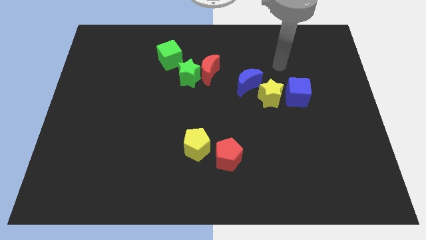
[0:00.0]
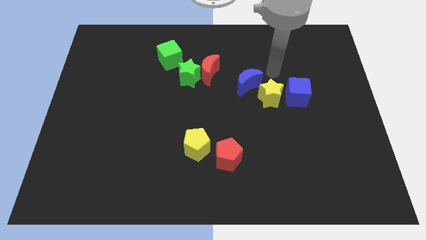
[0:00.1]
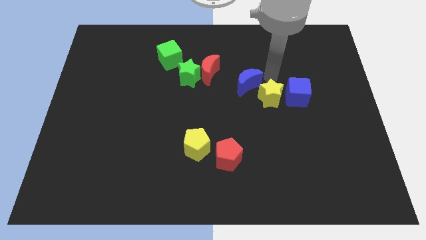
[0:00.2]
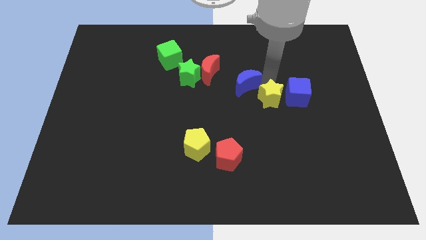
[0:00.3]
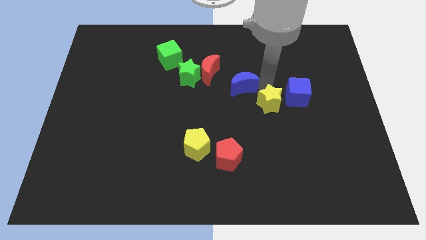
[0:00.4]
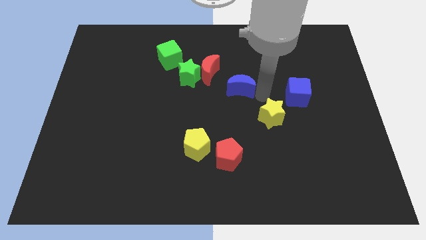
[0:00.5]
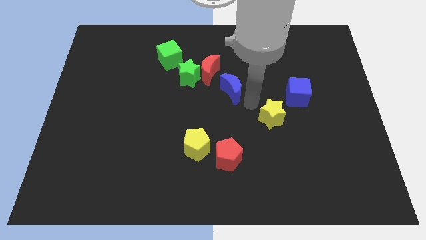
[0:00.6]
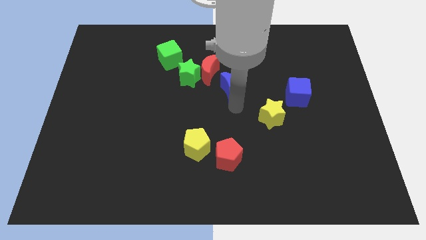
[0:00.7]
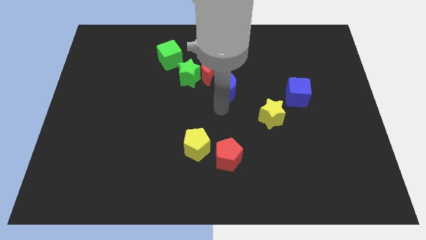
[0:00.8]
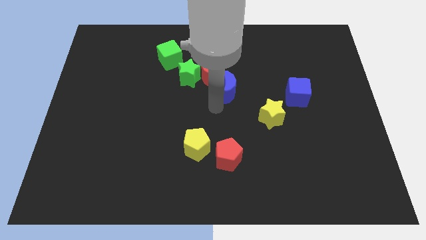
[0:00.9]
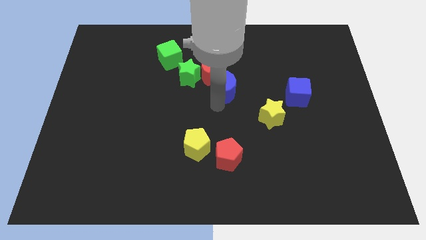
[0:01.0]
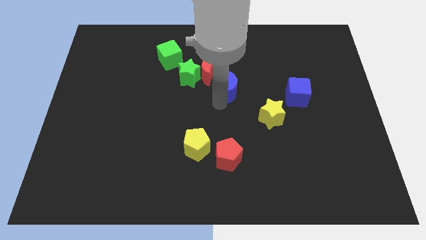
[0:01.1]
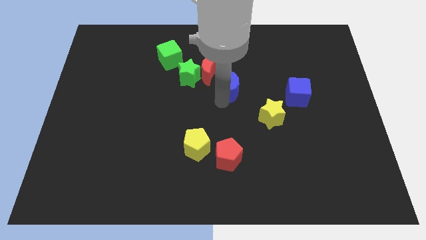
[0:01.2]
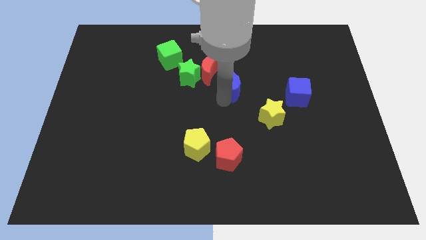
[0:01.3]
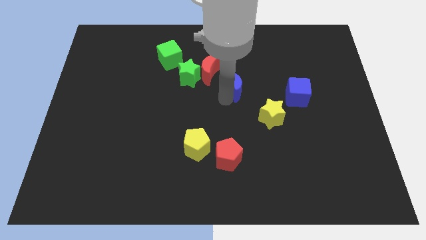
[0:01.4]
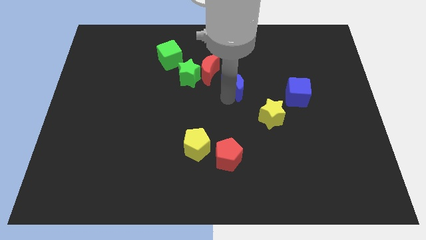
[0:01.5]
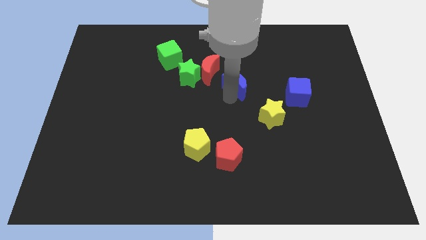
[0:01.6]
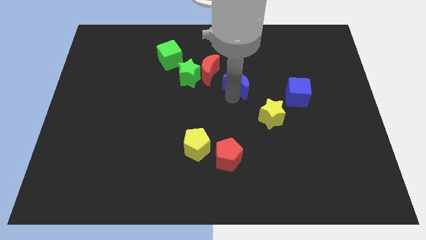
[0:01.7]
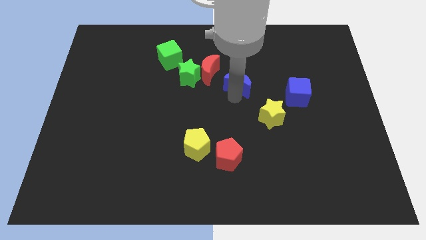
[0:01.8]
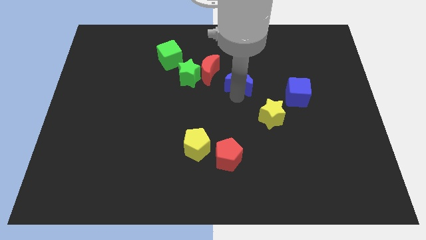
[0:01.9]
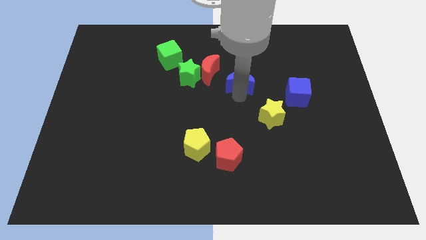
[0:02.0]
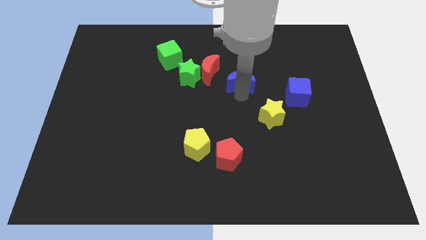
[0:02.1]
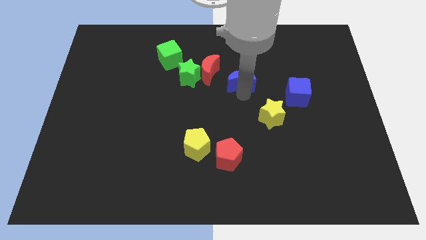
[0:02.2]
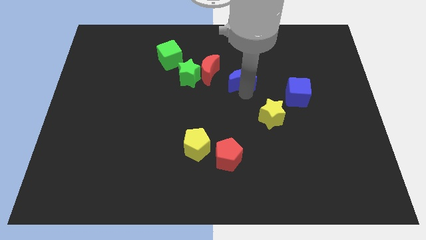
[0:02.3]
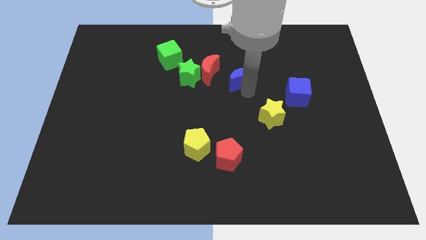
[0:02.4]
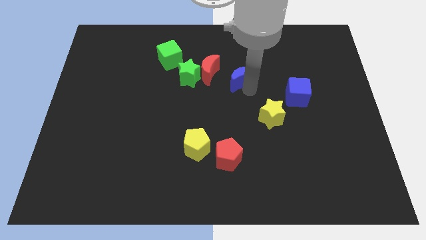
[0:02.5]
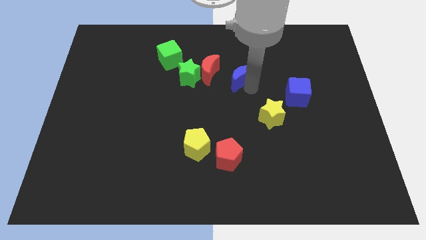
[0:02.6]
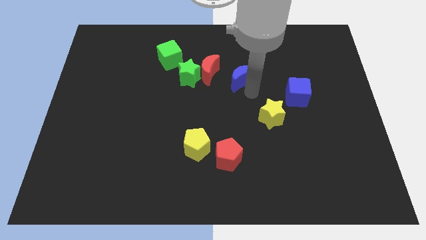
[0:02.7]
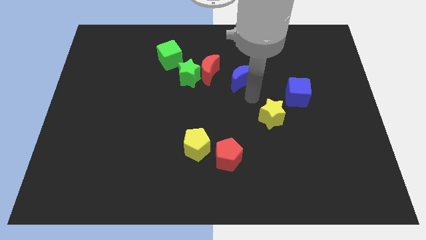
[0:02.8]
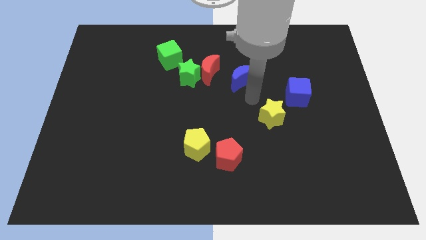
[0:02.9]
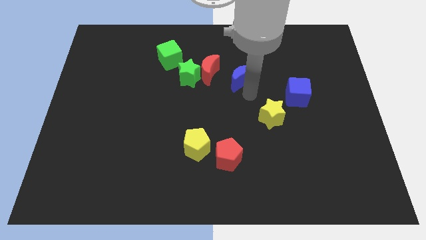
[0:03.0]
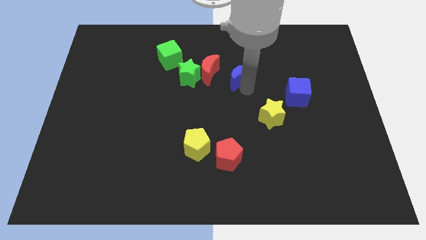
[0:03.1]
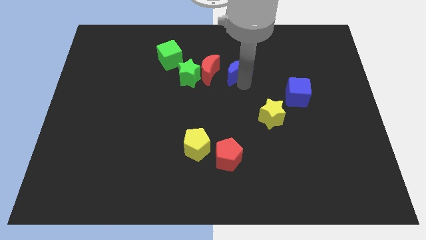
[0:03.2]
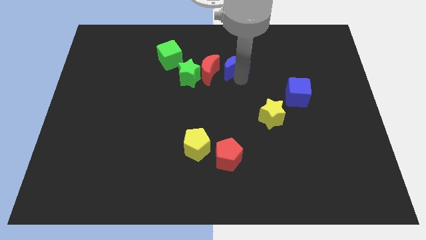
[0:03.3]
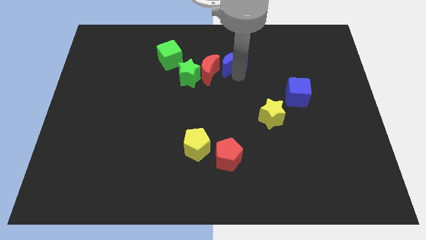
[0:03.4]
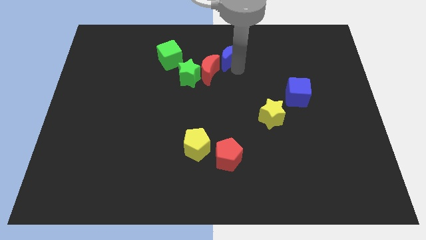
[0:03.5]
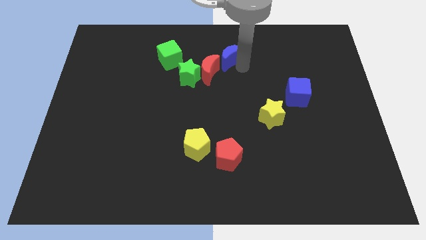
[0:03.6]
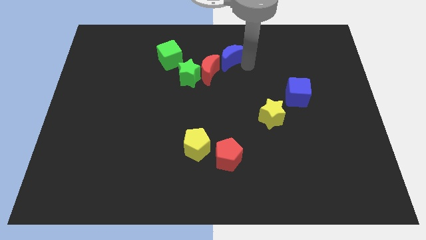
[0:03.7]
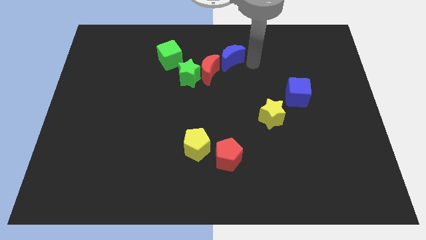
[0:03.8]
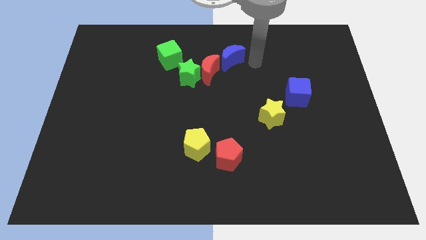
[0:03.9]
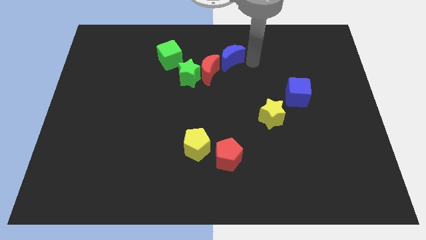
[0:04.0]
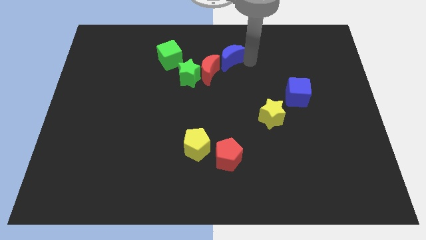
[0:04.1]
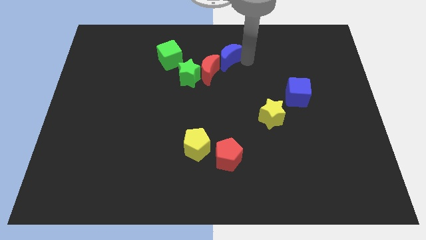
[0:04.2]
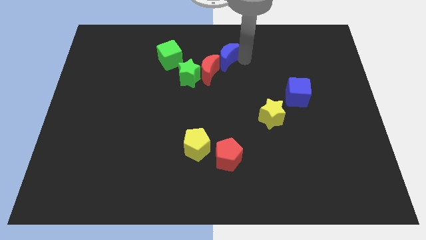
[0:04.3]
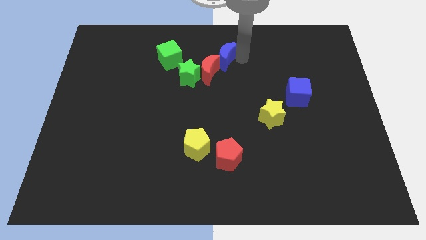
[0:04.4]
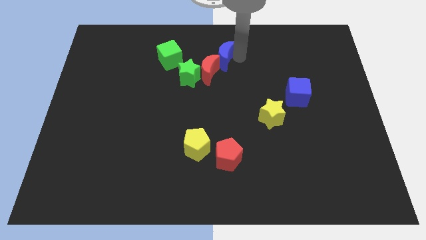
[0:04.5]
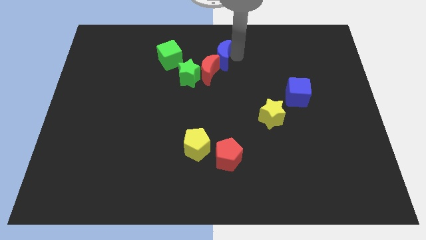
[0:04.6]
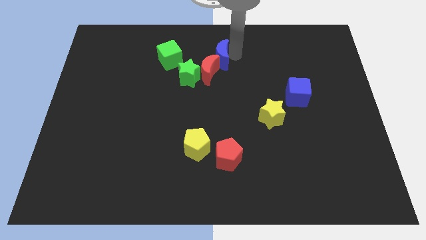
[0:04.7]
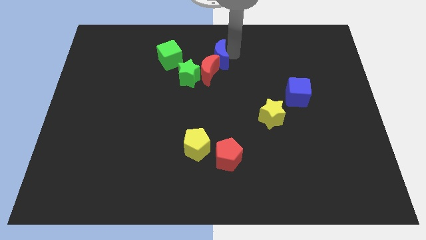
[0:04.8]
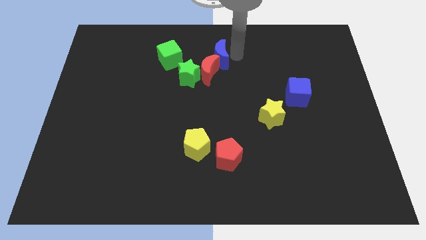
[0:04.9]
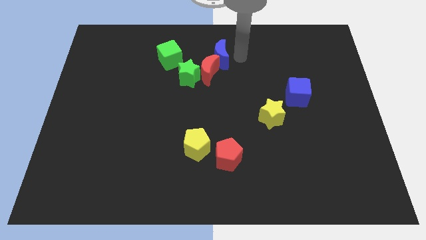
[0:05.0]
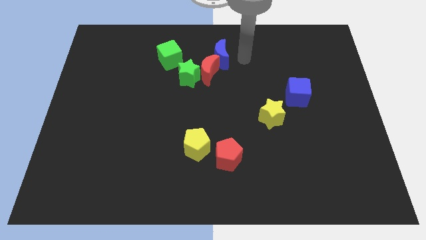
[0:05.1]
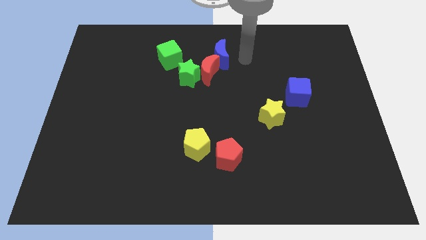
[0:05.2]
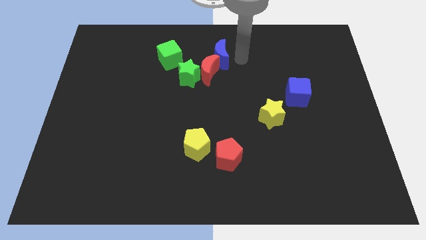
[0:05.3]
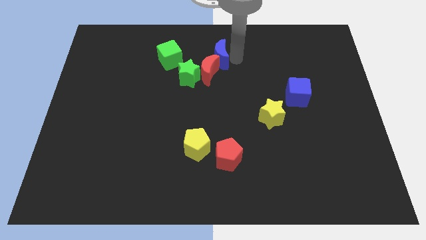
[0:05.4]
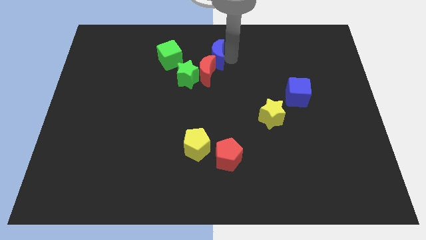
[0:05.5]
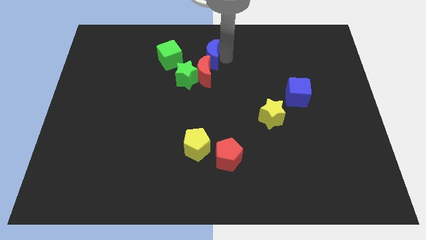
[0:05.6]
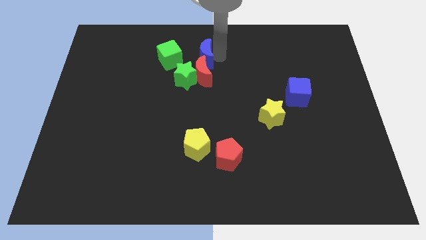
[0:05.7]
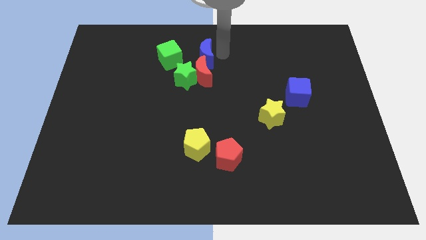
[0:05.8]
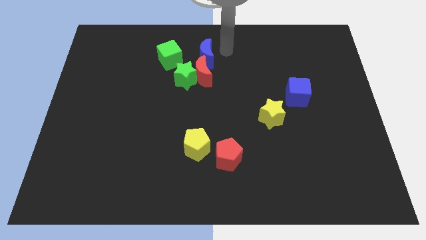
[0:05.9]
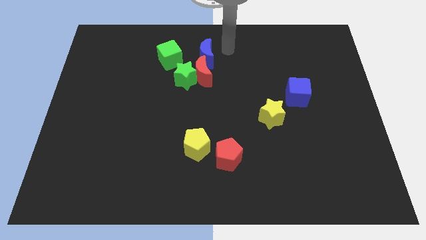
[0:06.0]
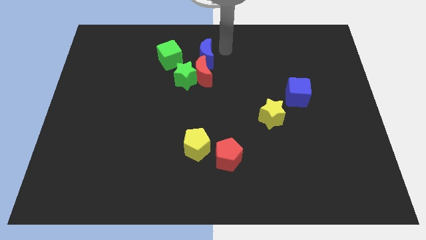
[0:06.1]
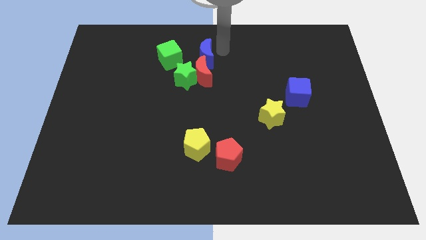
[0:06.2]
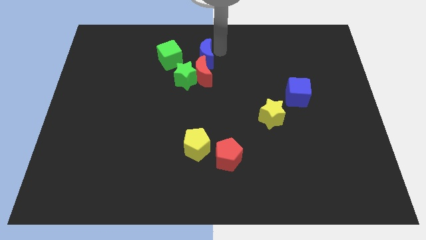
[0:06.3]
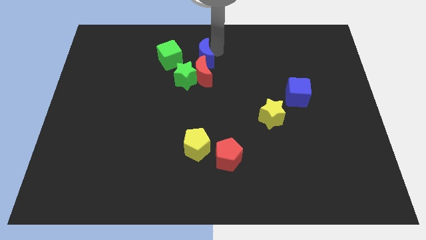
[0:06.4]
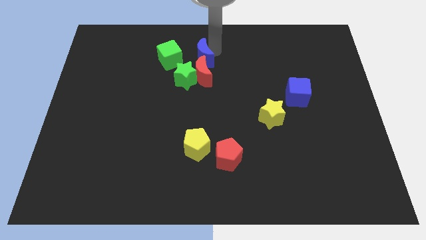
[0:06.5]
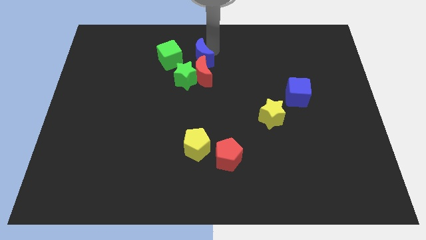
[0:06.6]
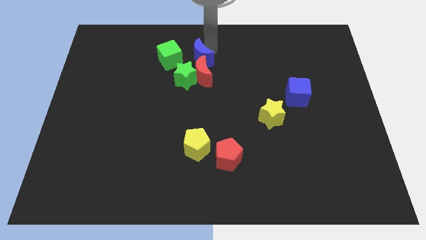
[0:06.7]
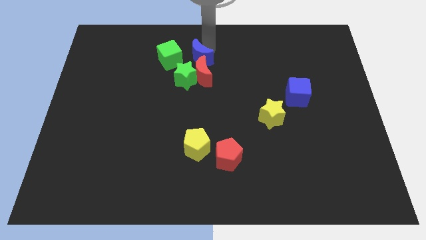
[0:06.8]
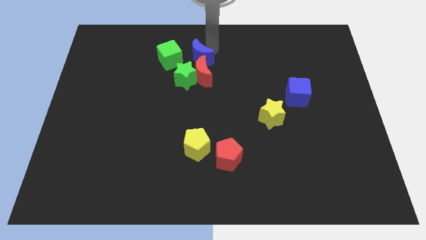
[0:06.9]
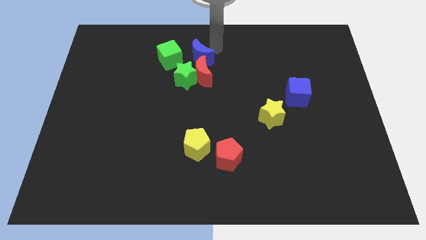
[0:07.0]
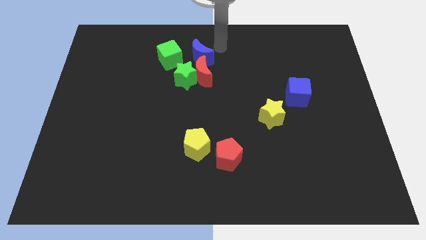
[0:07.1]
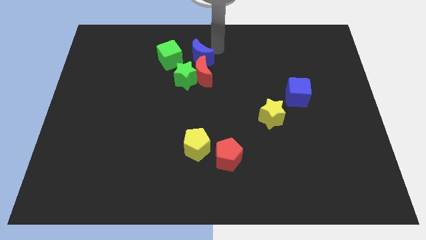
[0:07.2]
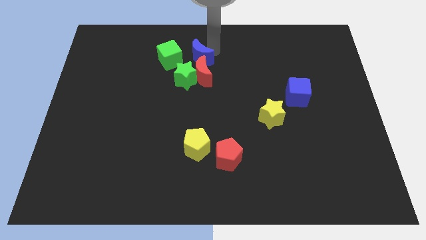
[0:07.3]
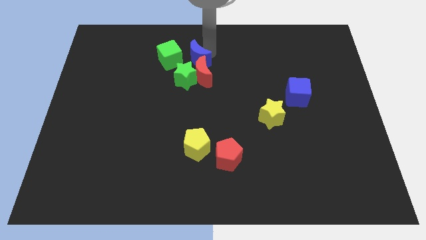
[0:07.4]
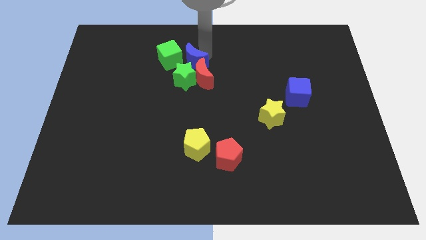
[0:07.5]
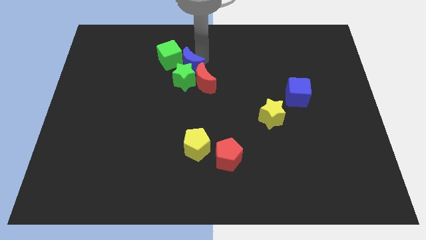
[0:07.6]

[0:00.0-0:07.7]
slide the blue moon next to the green cube
